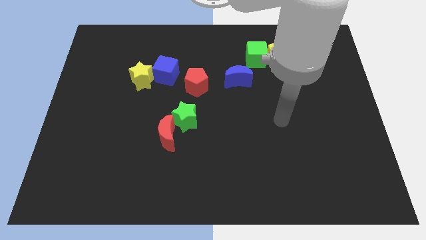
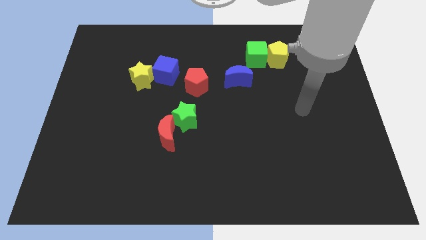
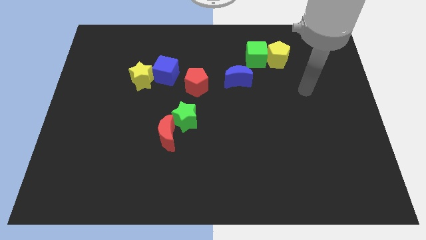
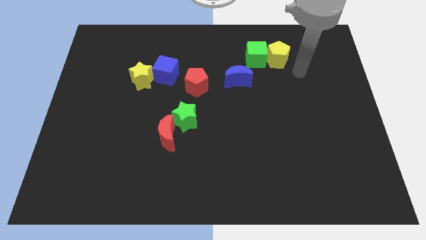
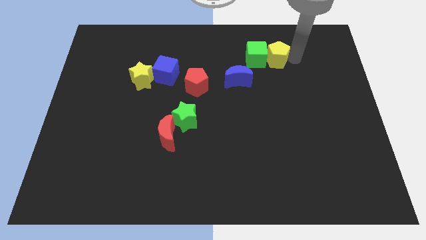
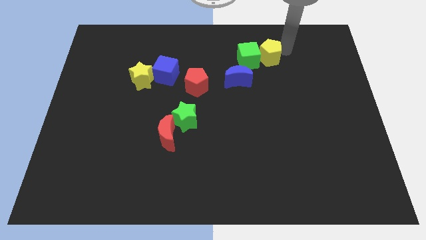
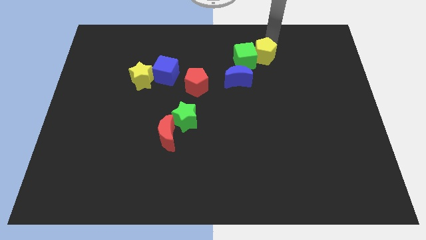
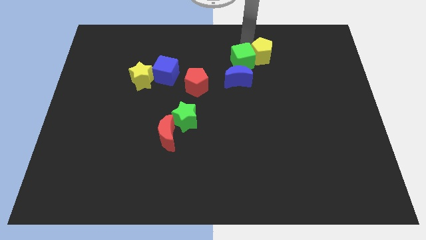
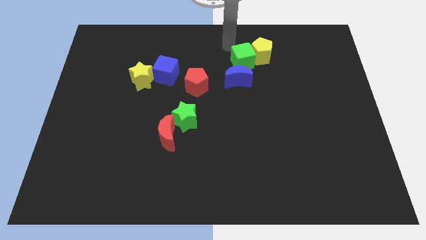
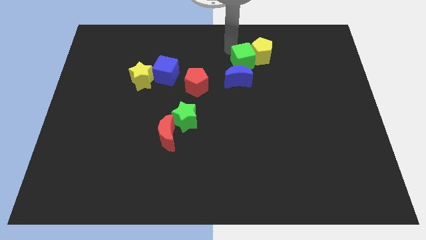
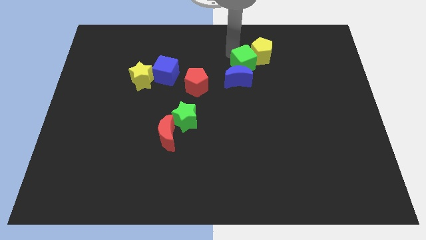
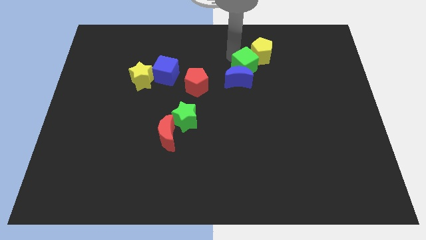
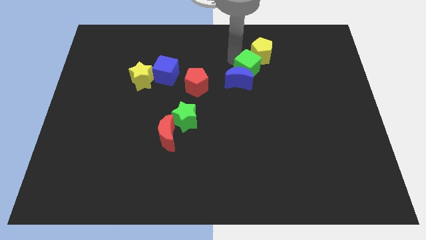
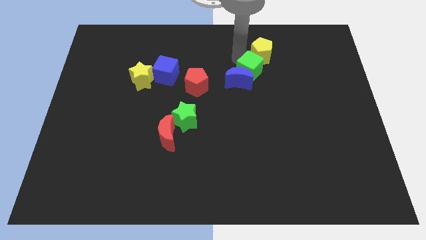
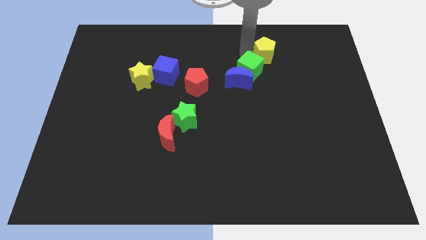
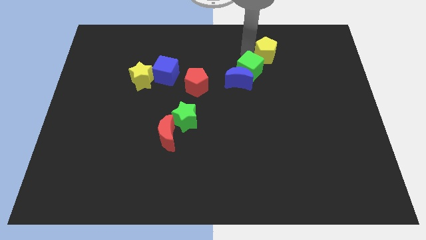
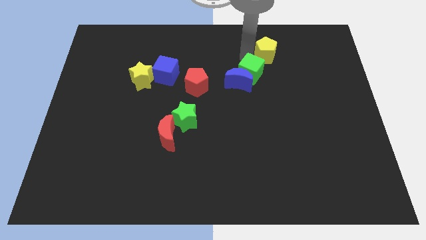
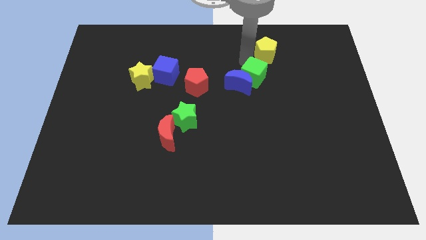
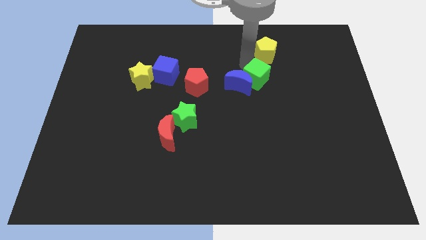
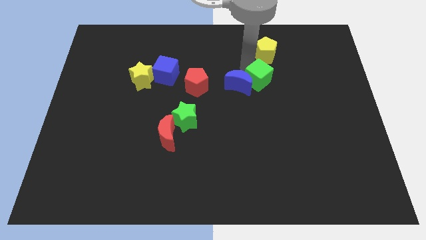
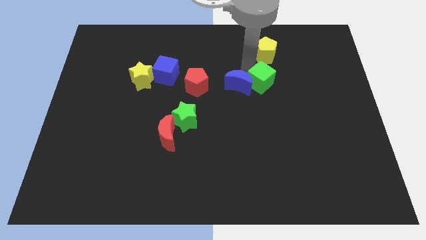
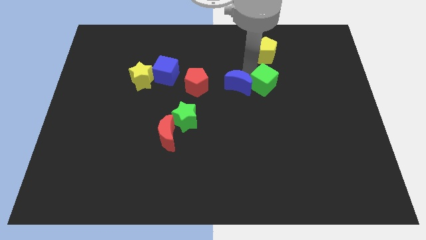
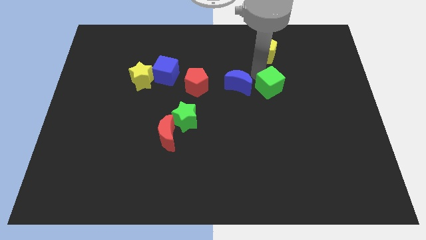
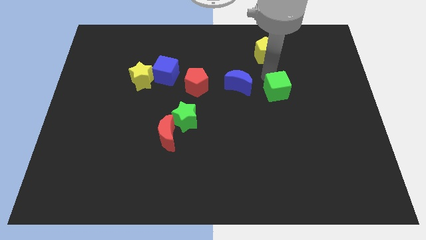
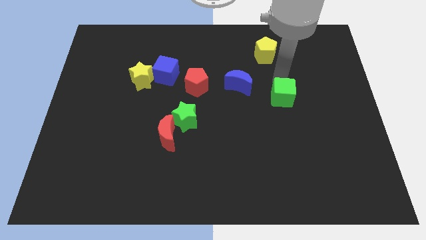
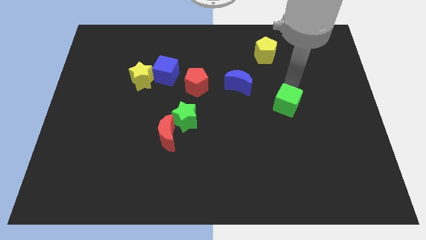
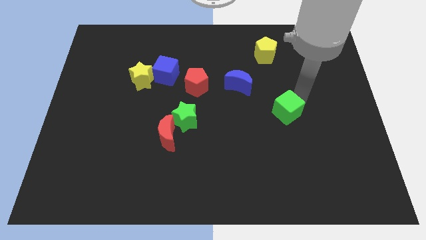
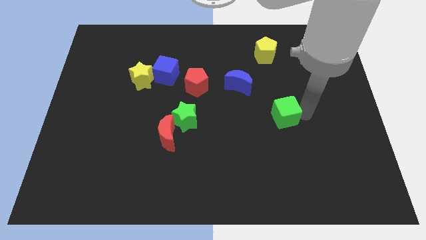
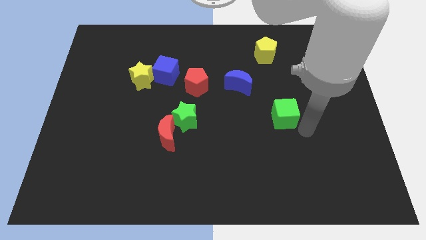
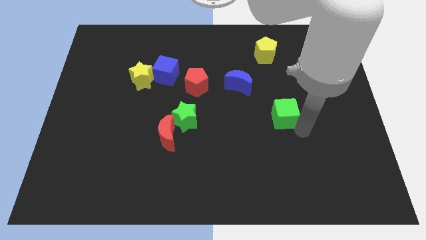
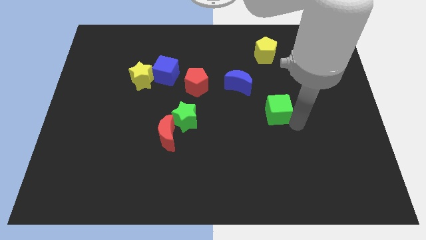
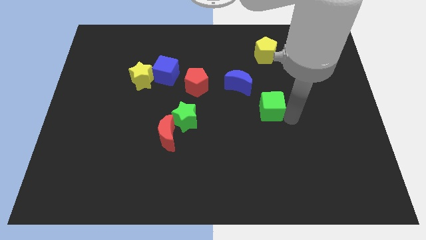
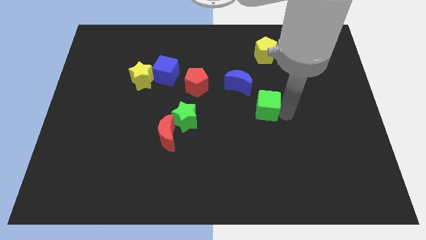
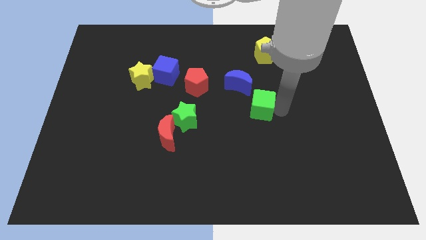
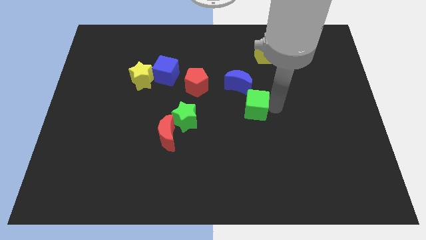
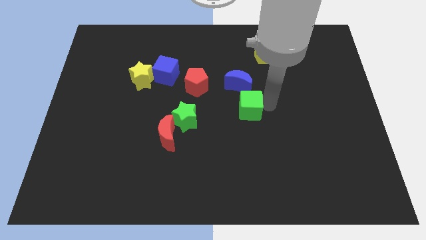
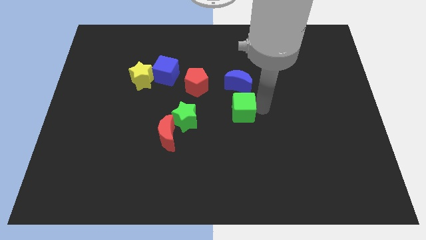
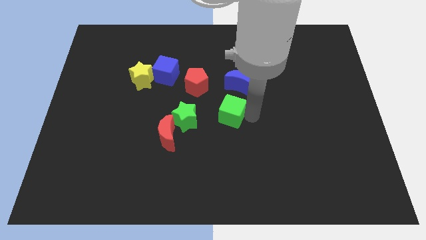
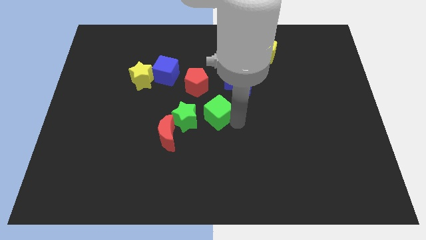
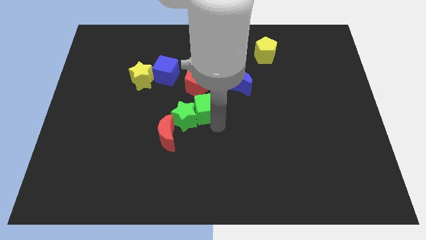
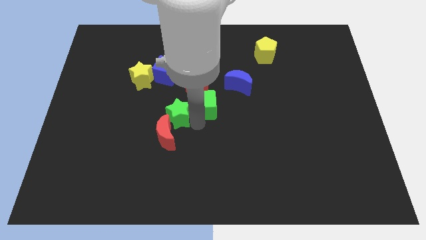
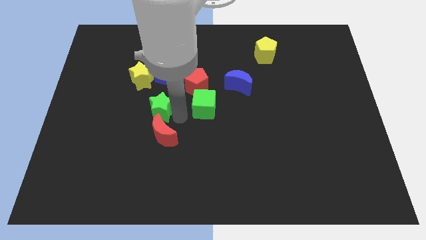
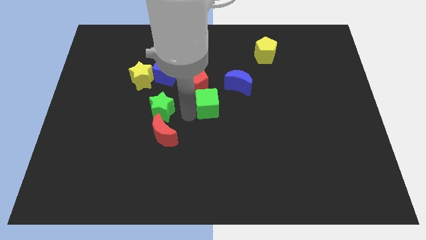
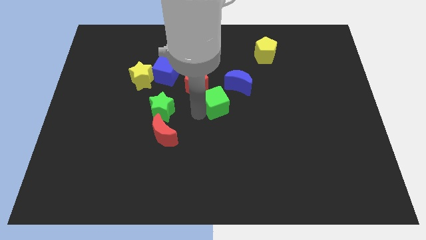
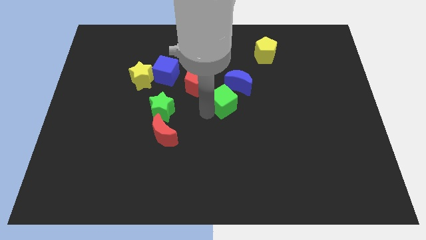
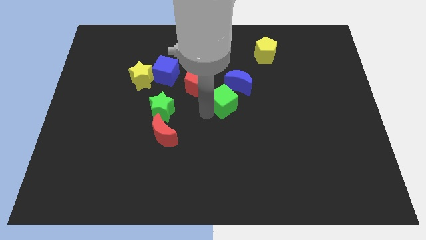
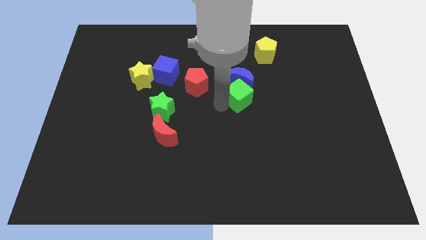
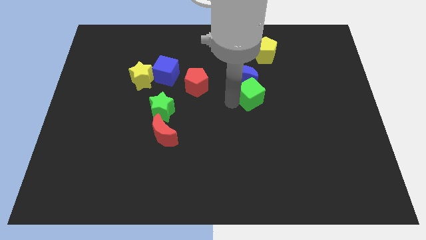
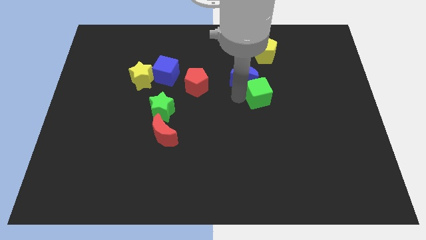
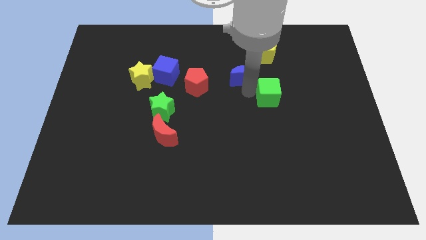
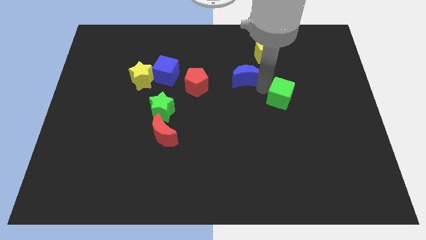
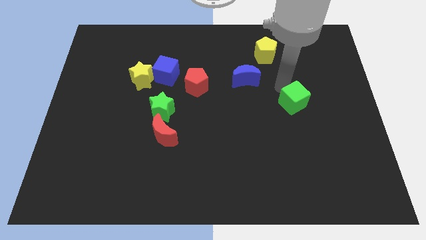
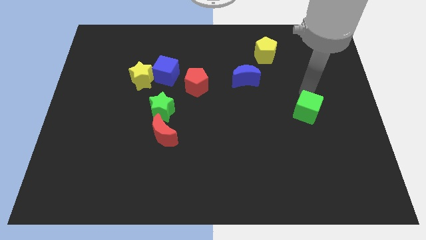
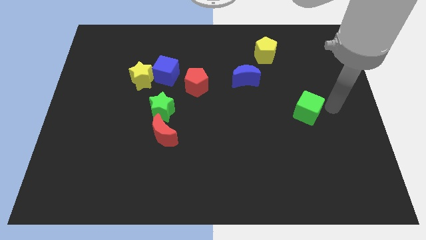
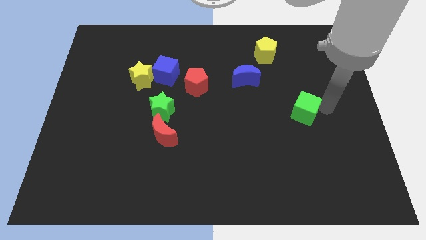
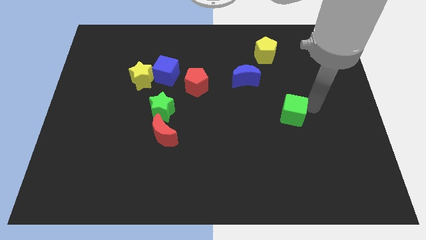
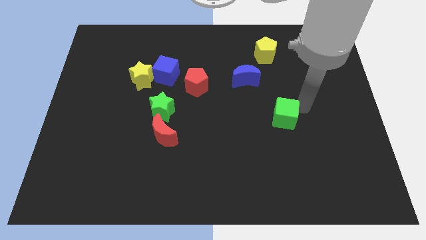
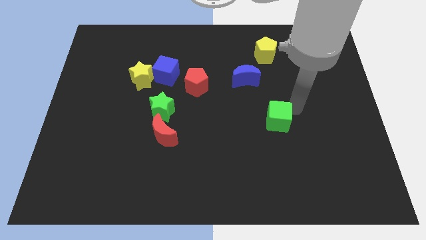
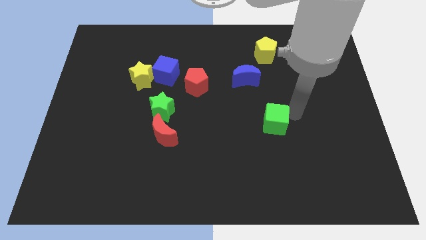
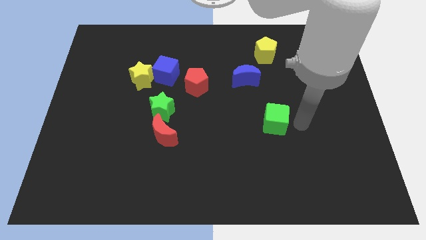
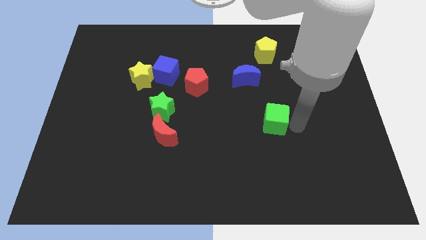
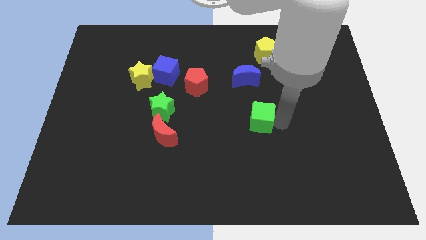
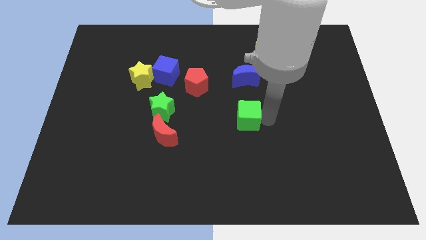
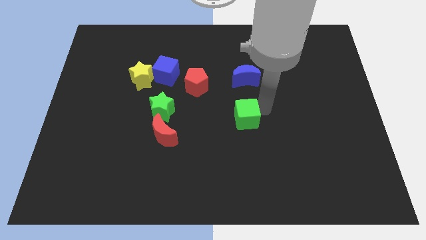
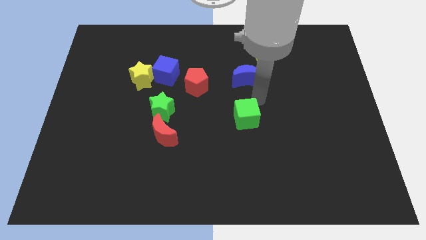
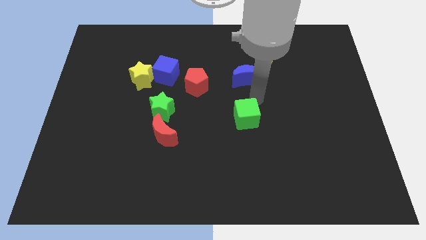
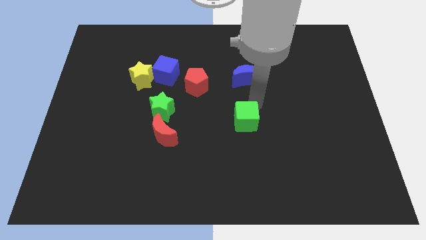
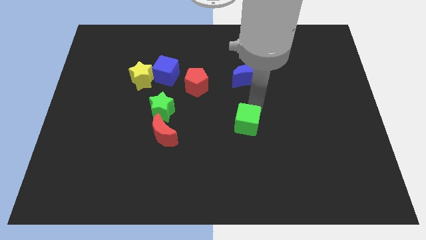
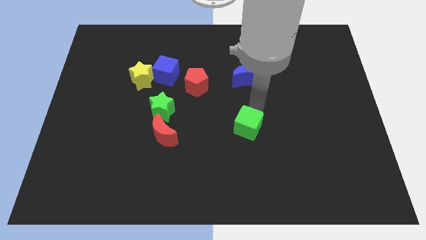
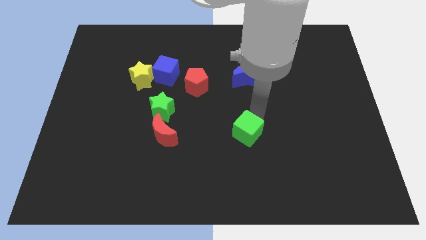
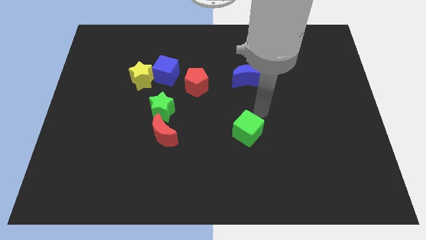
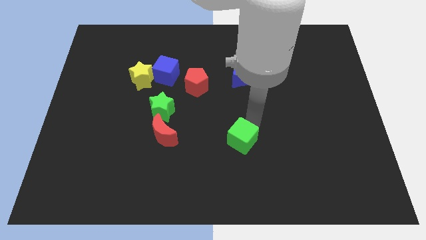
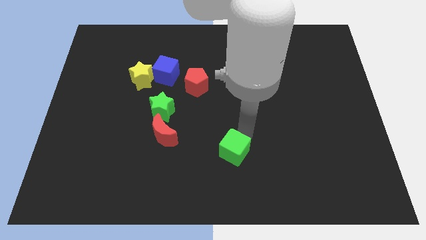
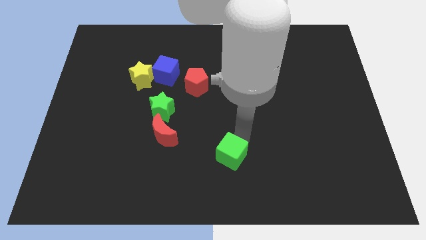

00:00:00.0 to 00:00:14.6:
put the green cube to the bottom
